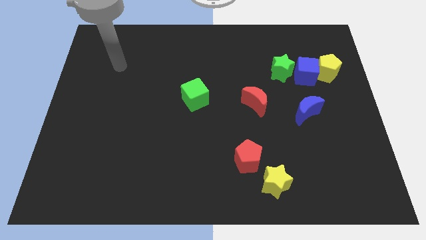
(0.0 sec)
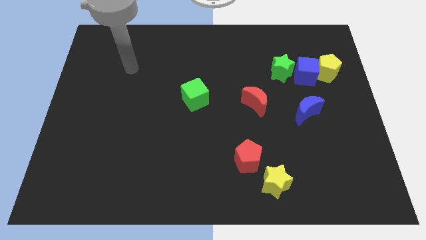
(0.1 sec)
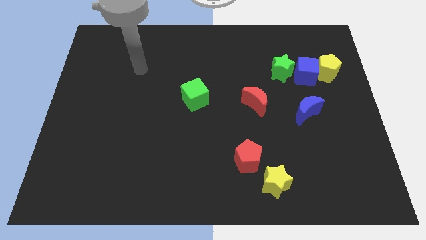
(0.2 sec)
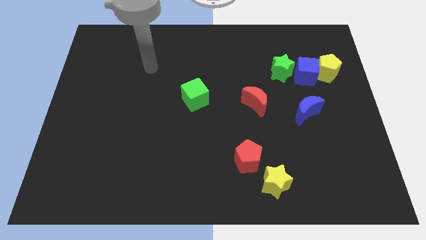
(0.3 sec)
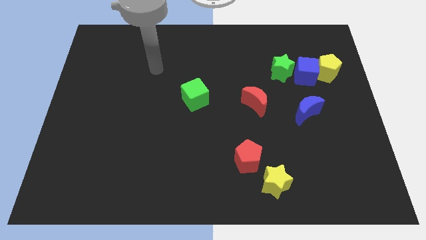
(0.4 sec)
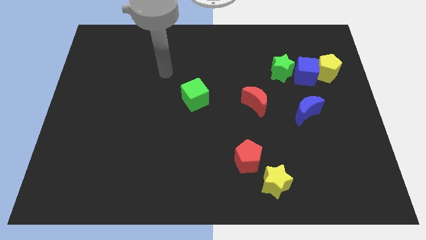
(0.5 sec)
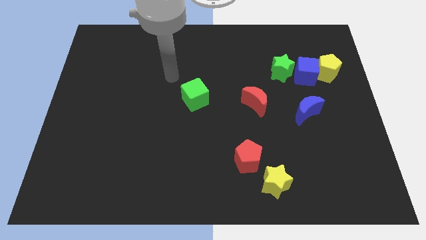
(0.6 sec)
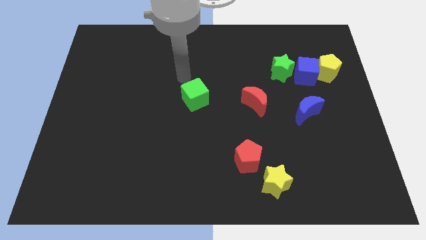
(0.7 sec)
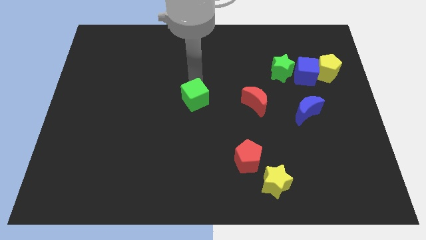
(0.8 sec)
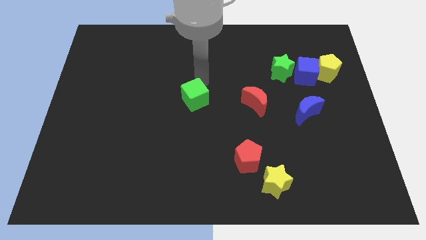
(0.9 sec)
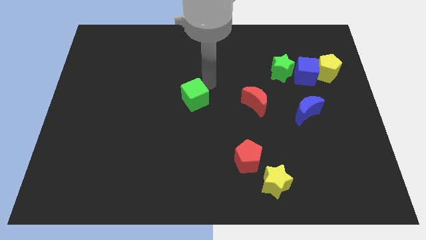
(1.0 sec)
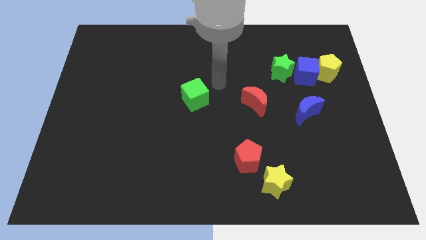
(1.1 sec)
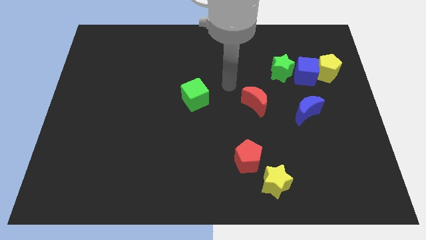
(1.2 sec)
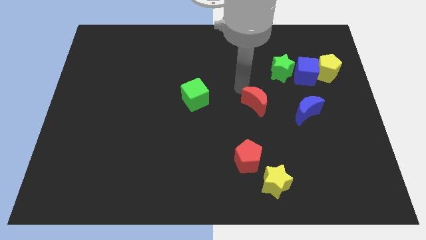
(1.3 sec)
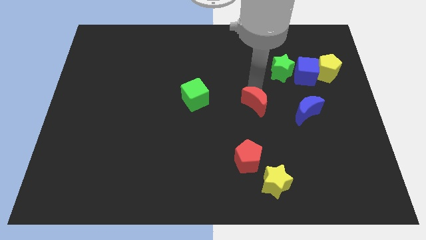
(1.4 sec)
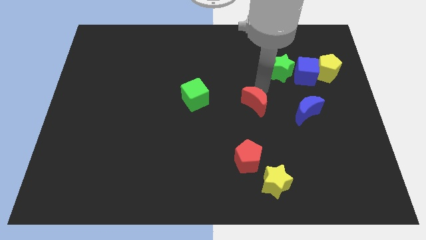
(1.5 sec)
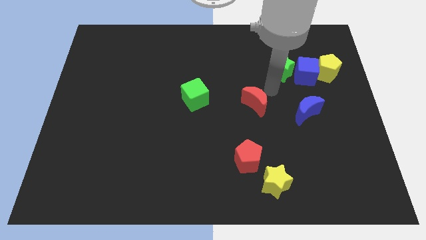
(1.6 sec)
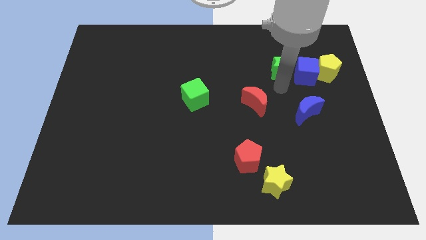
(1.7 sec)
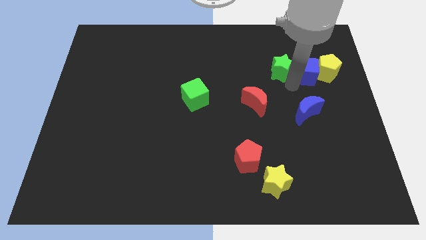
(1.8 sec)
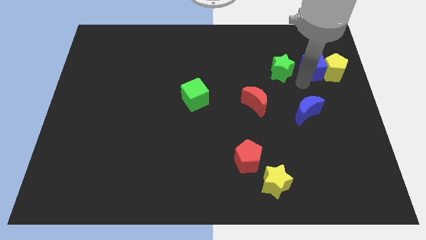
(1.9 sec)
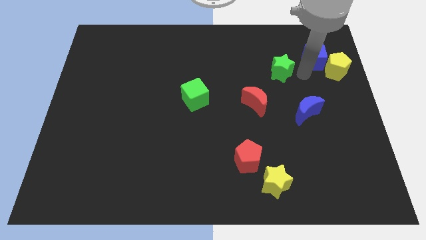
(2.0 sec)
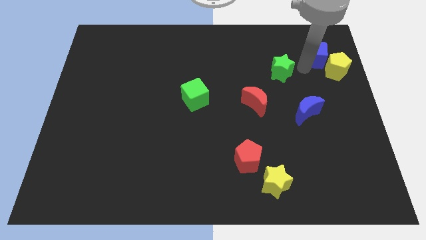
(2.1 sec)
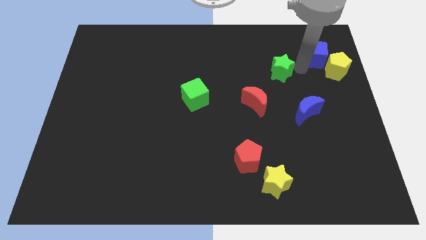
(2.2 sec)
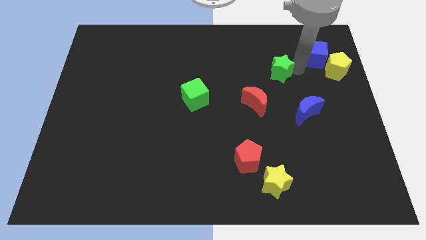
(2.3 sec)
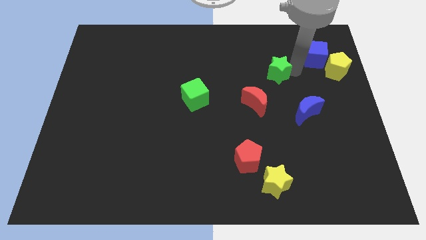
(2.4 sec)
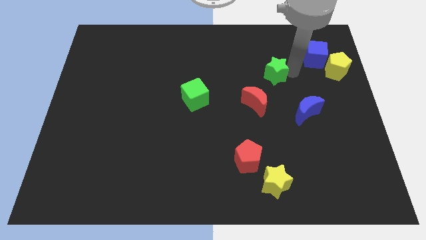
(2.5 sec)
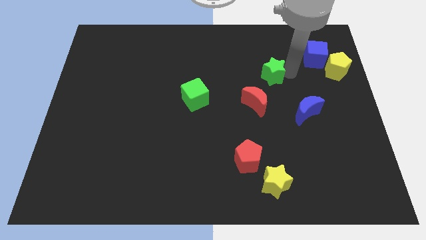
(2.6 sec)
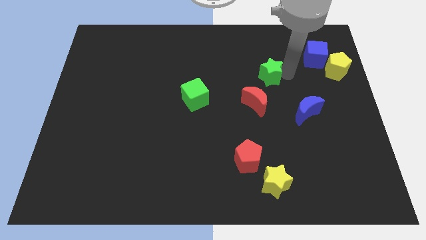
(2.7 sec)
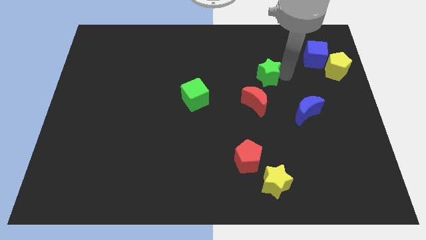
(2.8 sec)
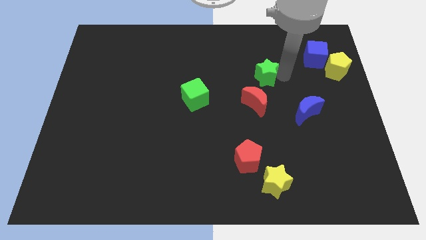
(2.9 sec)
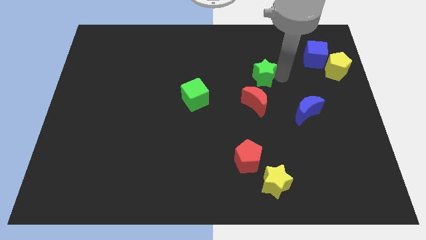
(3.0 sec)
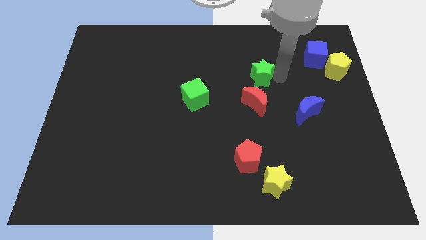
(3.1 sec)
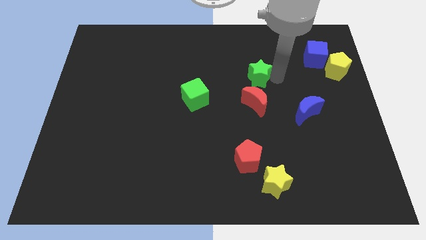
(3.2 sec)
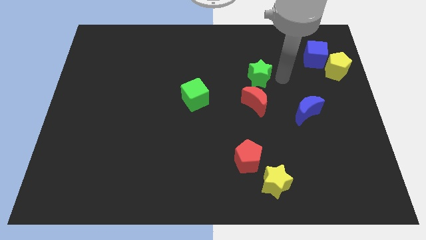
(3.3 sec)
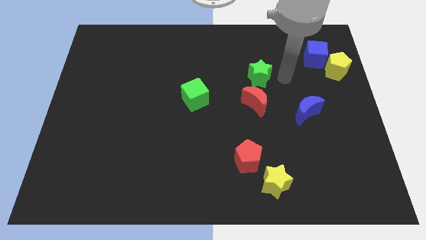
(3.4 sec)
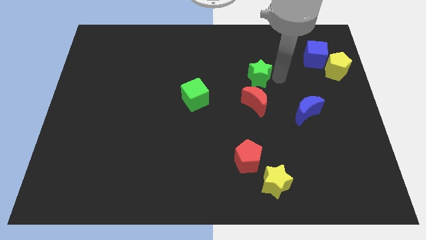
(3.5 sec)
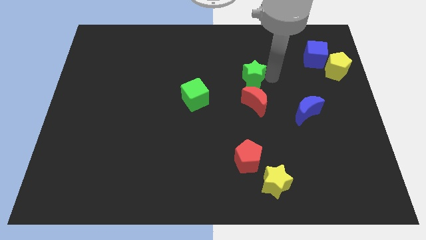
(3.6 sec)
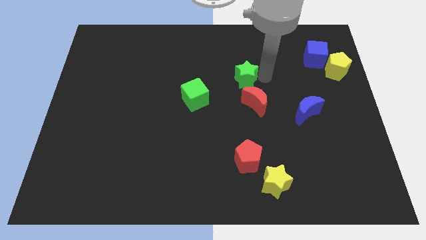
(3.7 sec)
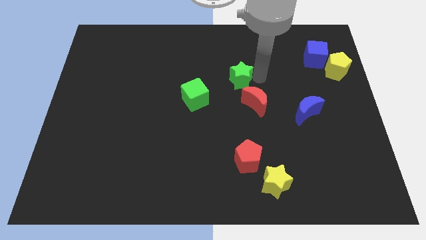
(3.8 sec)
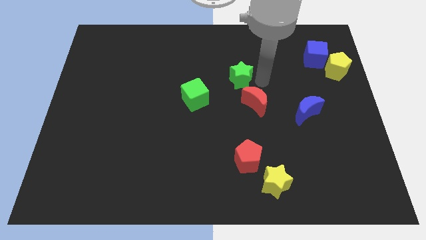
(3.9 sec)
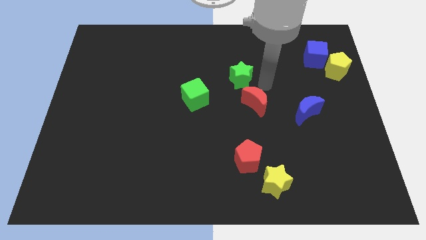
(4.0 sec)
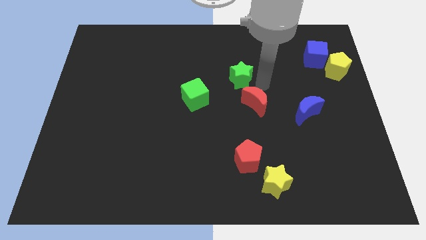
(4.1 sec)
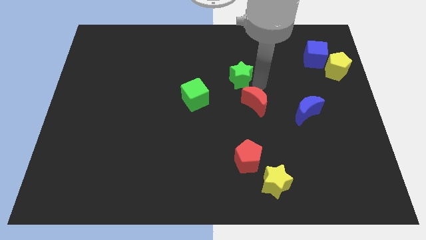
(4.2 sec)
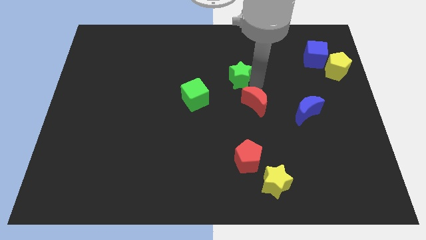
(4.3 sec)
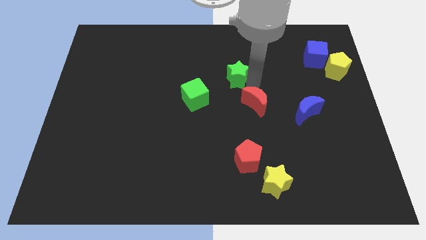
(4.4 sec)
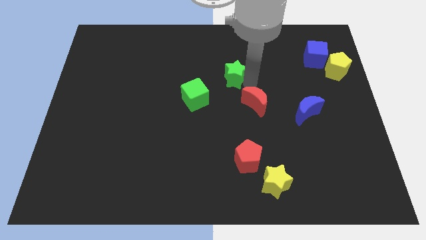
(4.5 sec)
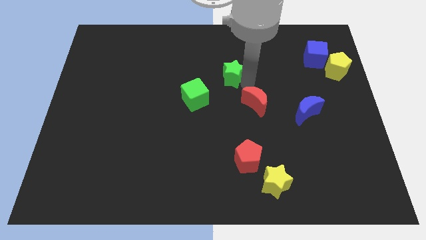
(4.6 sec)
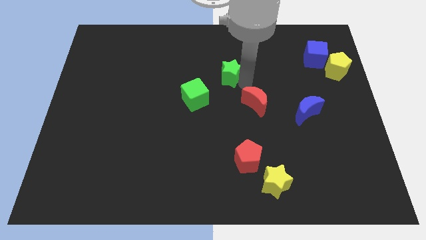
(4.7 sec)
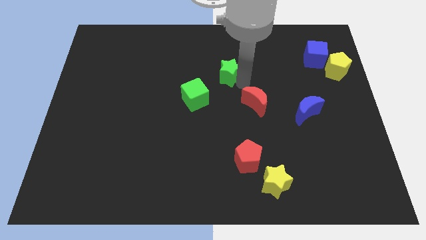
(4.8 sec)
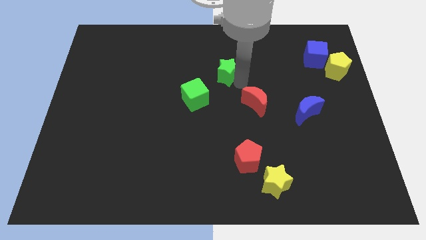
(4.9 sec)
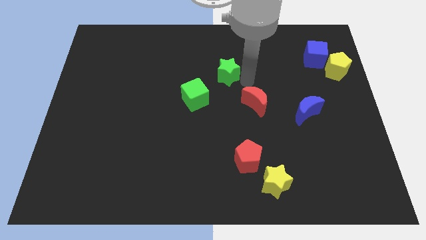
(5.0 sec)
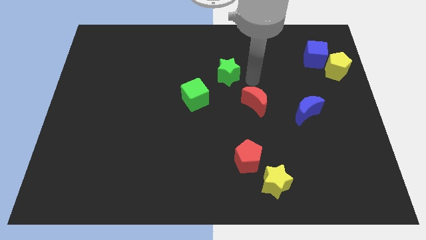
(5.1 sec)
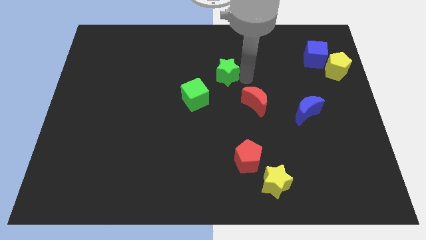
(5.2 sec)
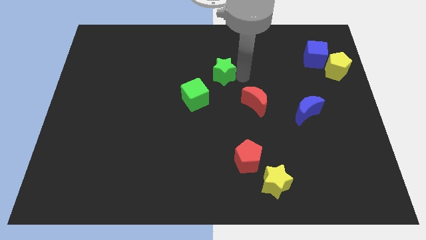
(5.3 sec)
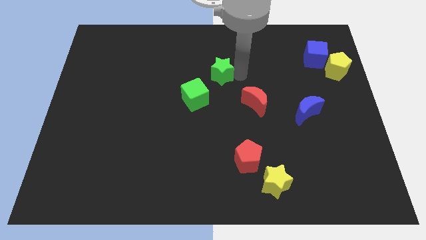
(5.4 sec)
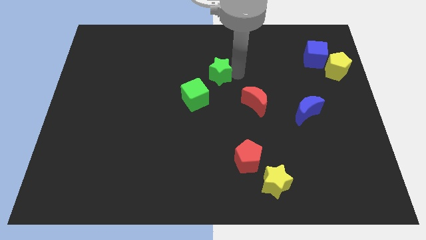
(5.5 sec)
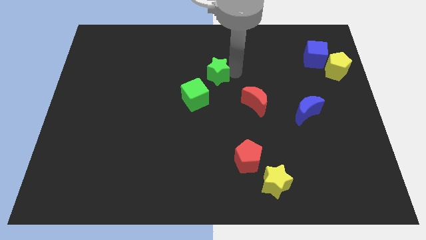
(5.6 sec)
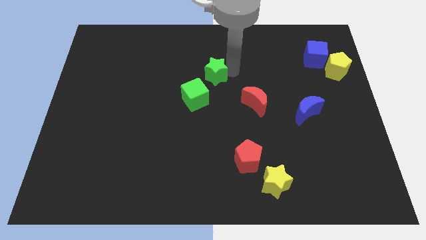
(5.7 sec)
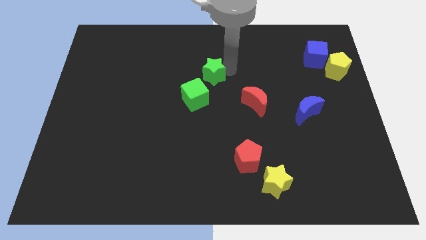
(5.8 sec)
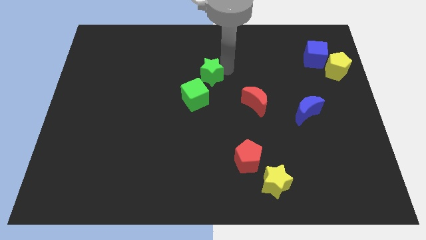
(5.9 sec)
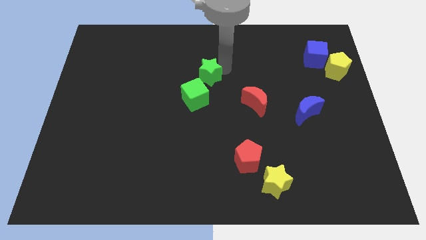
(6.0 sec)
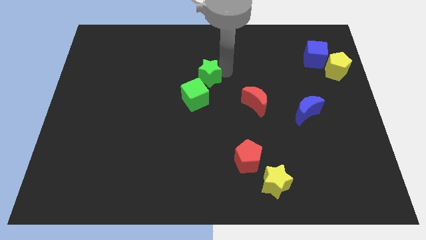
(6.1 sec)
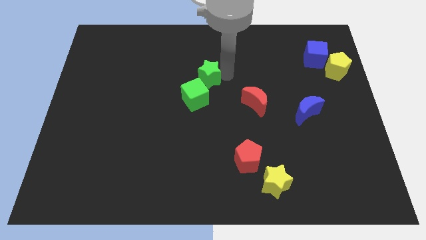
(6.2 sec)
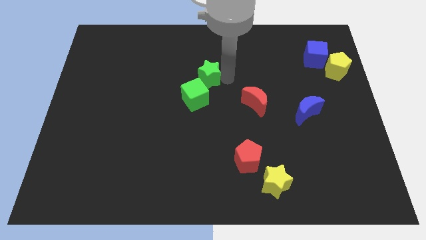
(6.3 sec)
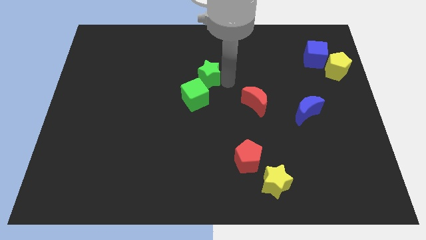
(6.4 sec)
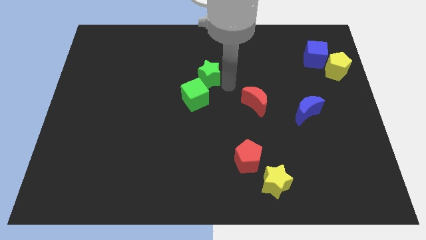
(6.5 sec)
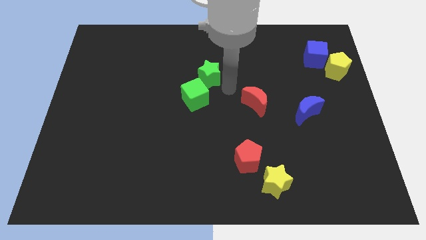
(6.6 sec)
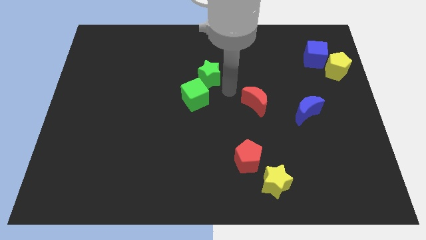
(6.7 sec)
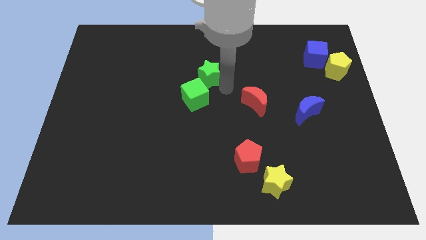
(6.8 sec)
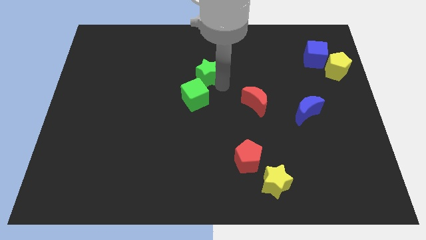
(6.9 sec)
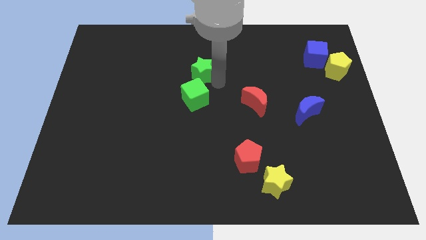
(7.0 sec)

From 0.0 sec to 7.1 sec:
push the green star to the left

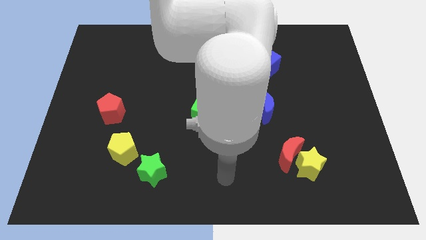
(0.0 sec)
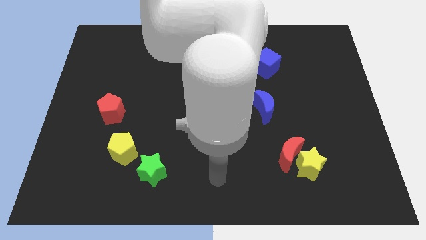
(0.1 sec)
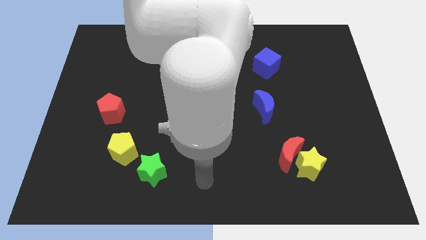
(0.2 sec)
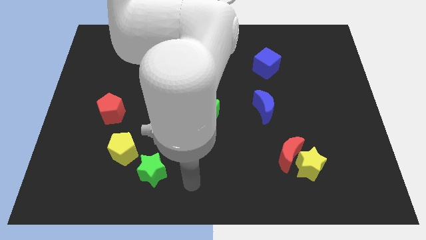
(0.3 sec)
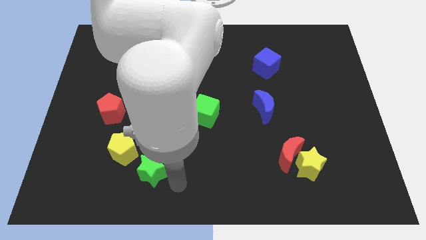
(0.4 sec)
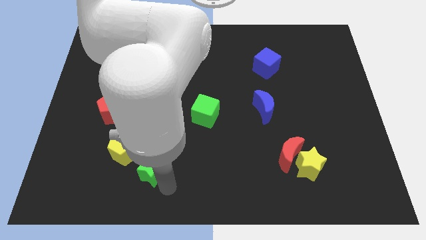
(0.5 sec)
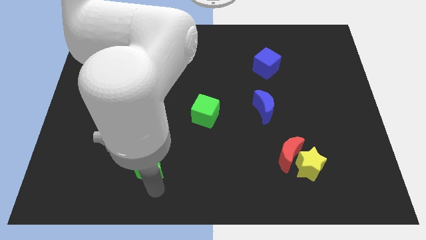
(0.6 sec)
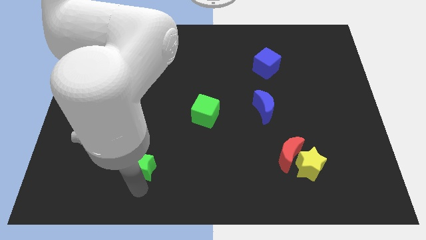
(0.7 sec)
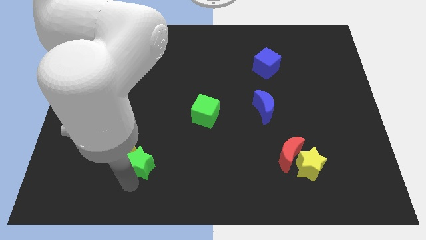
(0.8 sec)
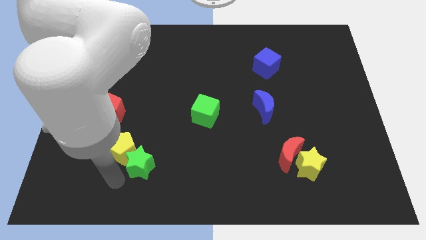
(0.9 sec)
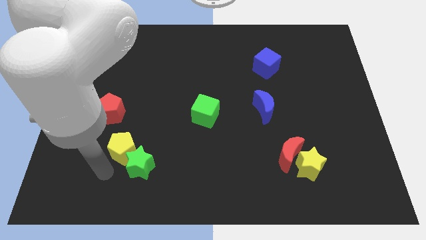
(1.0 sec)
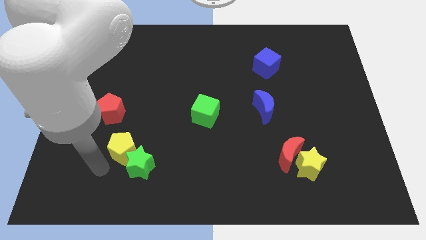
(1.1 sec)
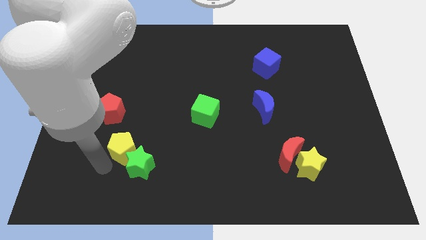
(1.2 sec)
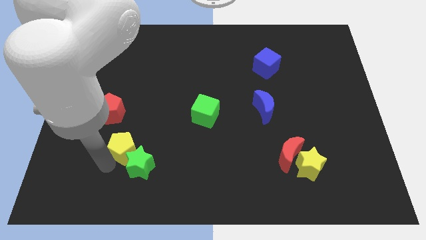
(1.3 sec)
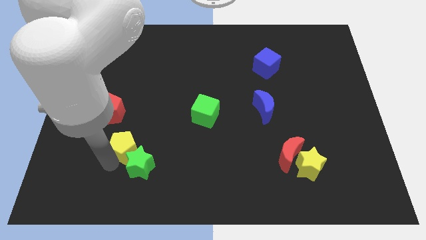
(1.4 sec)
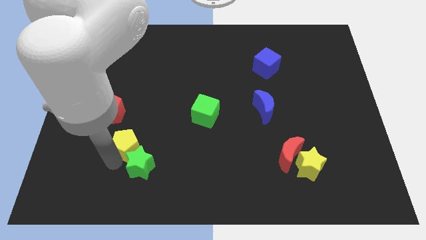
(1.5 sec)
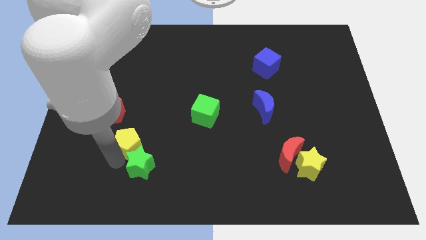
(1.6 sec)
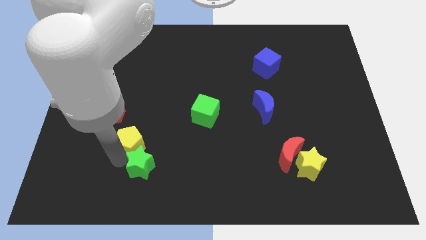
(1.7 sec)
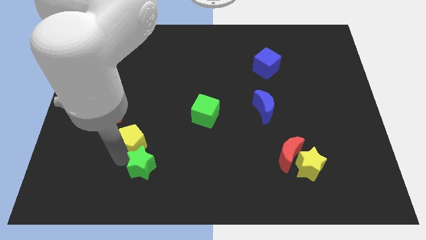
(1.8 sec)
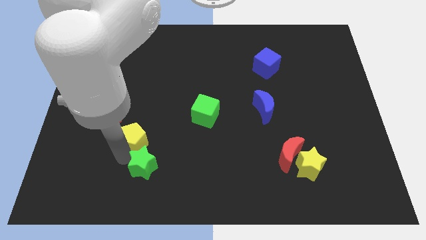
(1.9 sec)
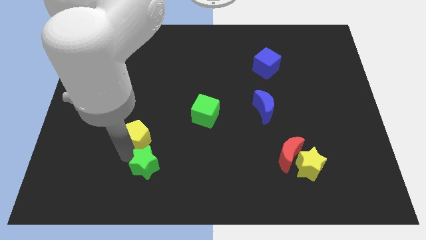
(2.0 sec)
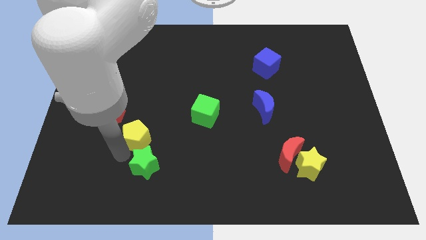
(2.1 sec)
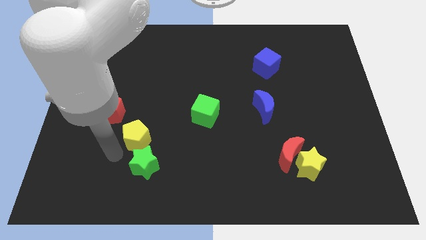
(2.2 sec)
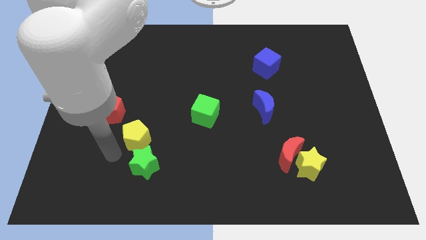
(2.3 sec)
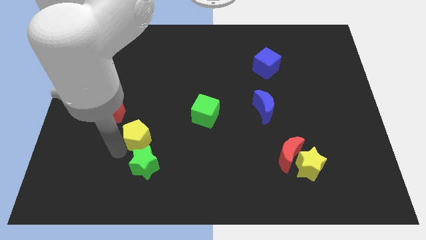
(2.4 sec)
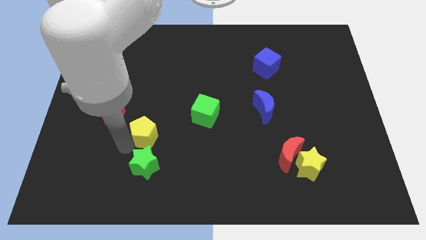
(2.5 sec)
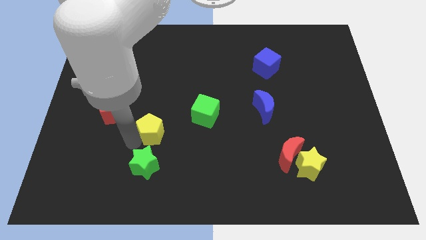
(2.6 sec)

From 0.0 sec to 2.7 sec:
move the yellow pentagon diagonally up and right slightly
